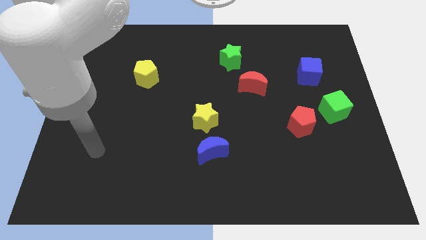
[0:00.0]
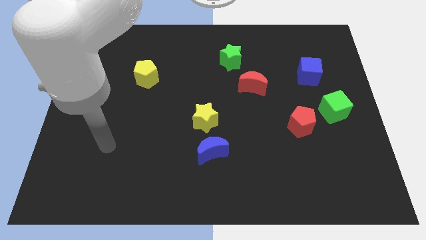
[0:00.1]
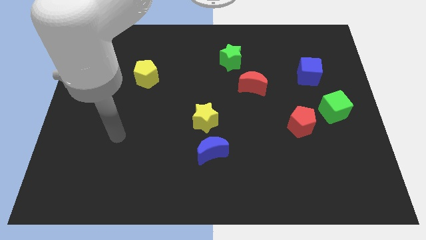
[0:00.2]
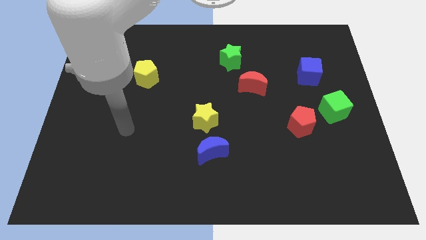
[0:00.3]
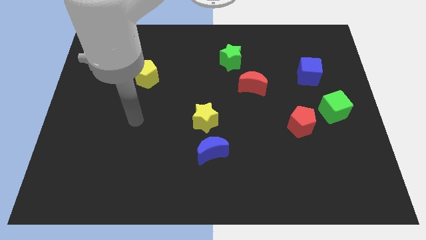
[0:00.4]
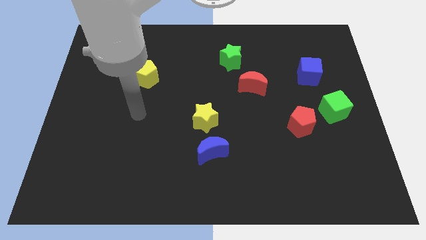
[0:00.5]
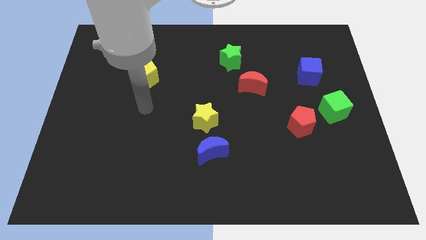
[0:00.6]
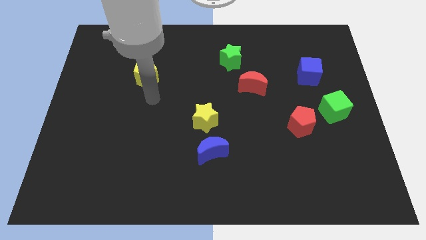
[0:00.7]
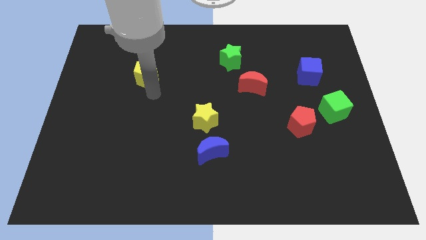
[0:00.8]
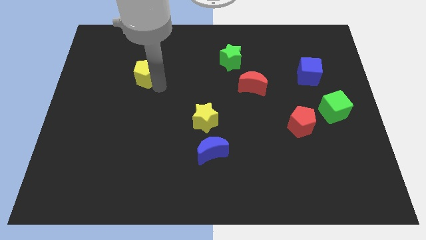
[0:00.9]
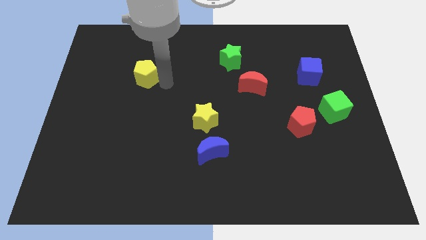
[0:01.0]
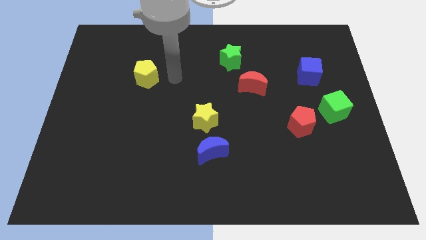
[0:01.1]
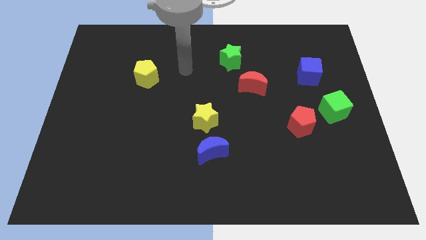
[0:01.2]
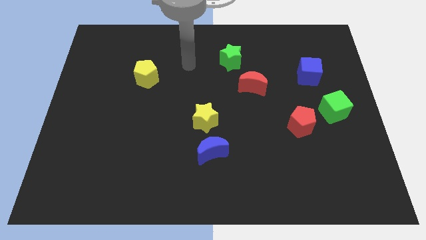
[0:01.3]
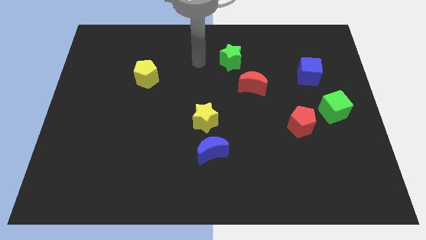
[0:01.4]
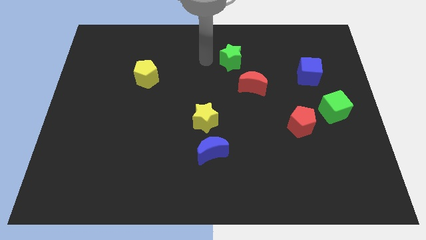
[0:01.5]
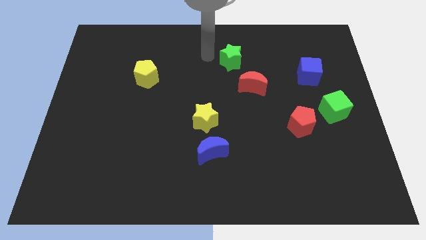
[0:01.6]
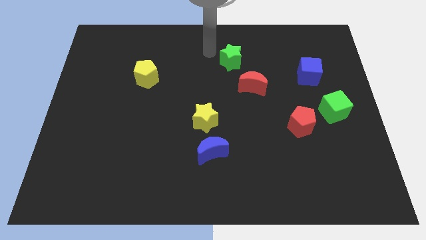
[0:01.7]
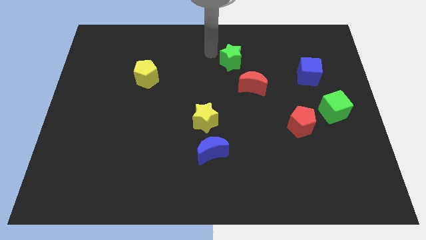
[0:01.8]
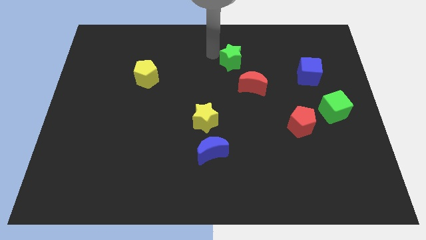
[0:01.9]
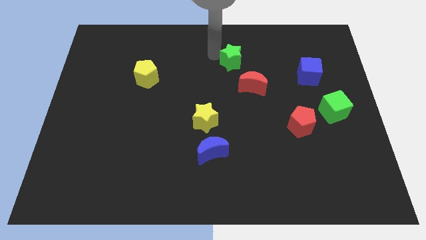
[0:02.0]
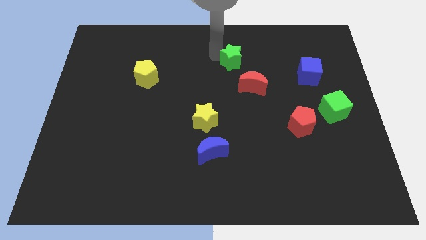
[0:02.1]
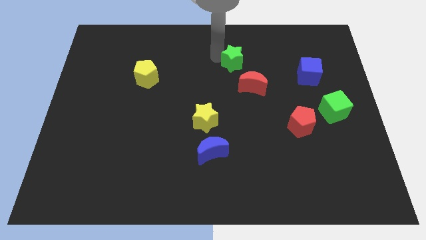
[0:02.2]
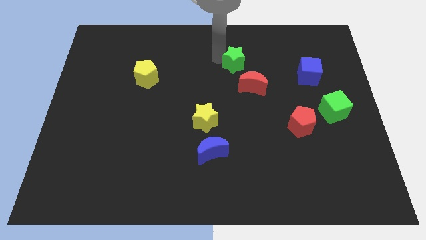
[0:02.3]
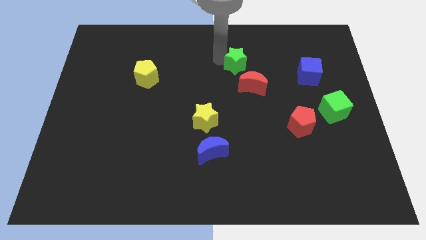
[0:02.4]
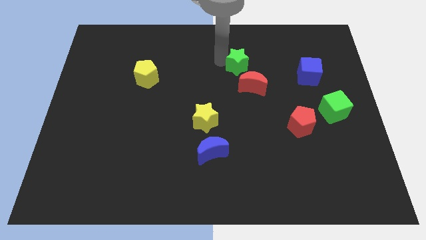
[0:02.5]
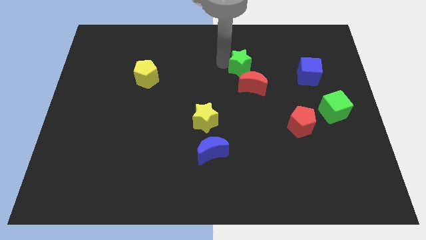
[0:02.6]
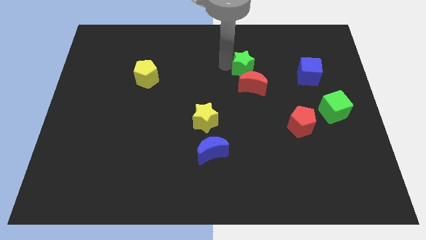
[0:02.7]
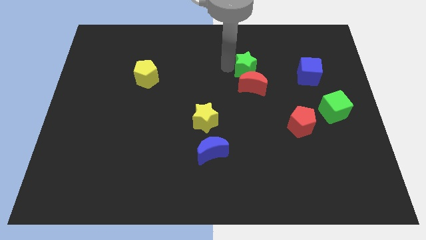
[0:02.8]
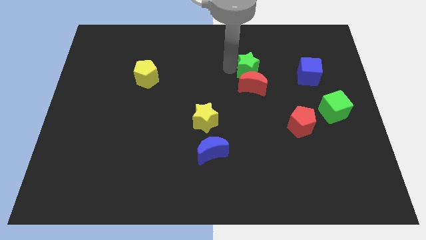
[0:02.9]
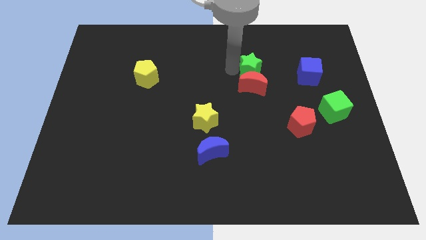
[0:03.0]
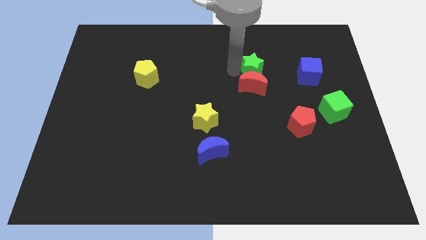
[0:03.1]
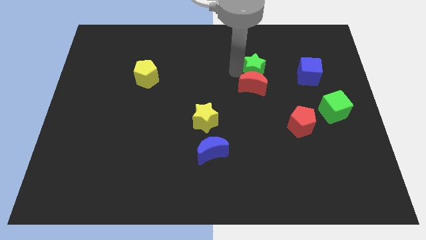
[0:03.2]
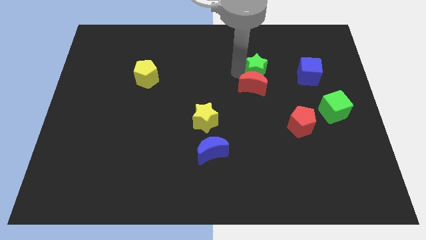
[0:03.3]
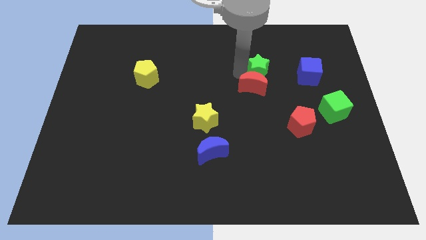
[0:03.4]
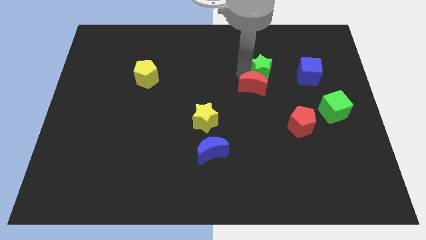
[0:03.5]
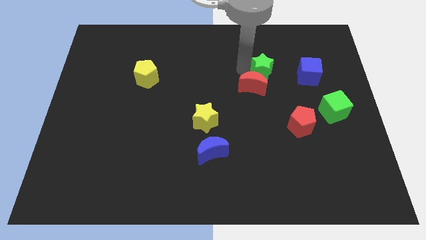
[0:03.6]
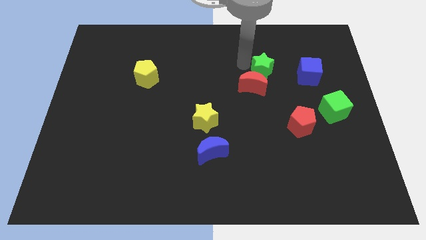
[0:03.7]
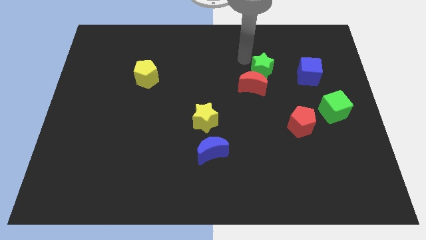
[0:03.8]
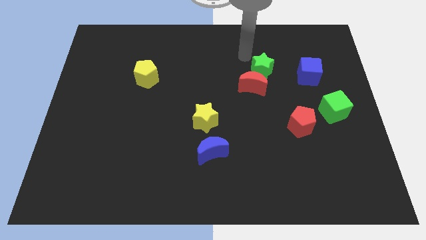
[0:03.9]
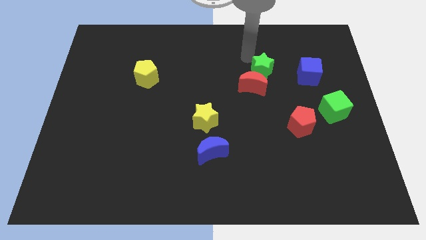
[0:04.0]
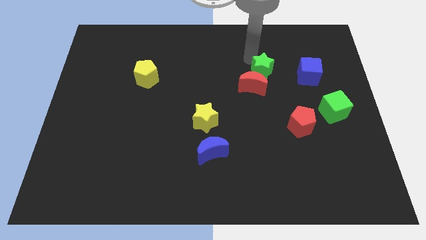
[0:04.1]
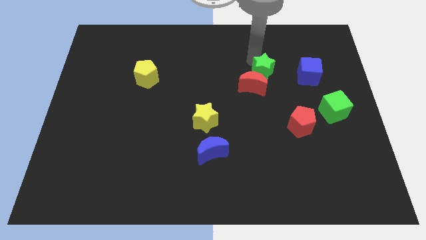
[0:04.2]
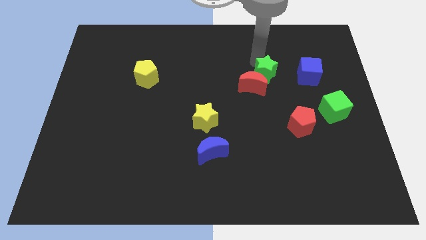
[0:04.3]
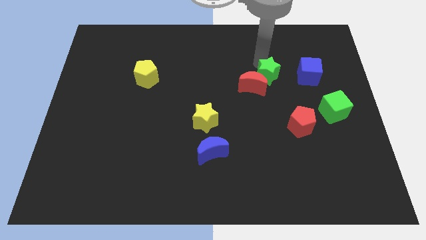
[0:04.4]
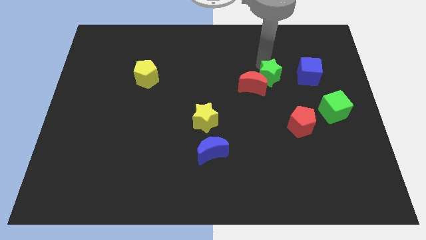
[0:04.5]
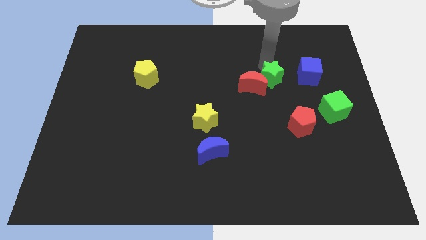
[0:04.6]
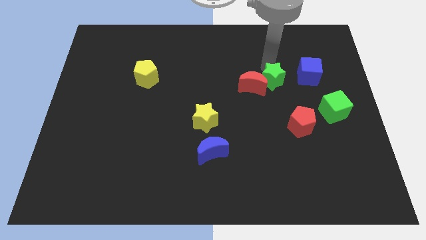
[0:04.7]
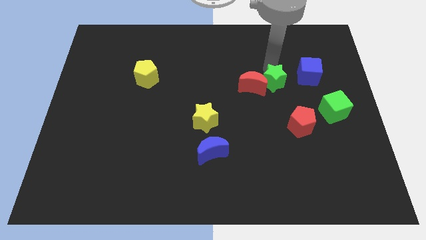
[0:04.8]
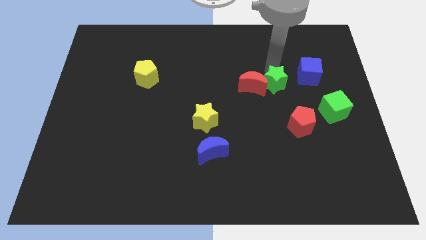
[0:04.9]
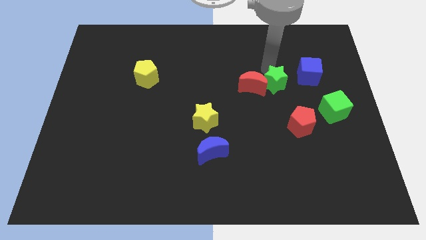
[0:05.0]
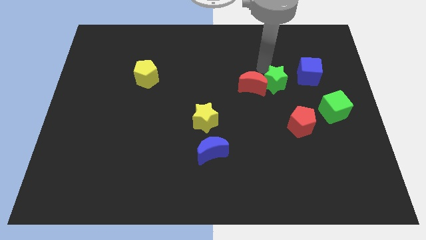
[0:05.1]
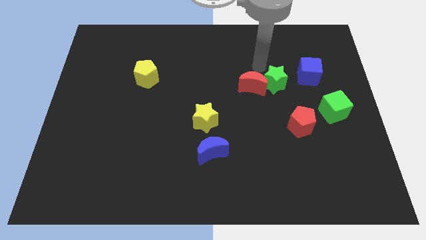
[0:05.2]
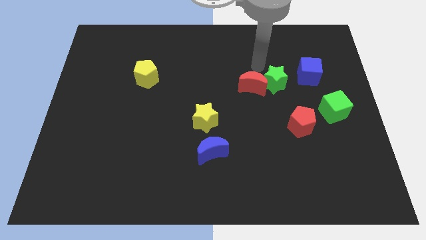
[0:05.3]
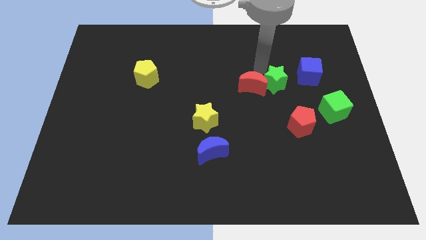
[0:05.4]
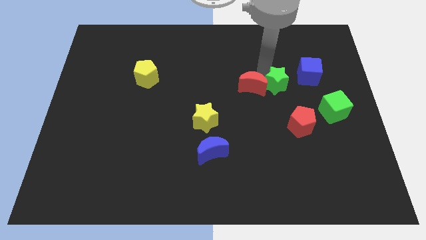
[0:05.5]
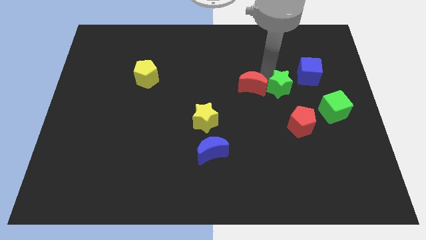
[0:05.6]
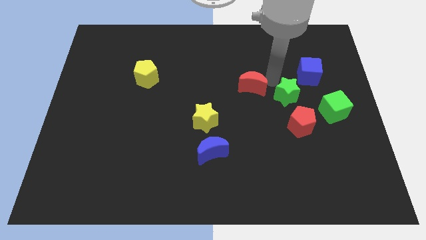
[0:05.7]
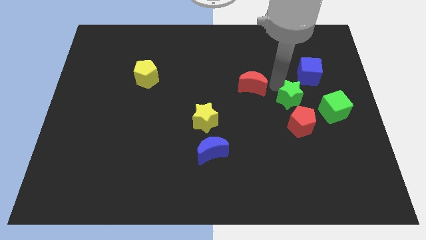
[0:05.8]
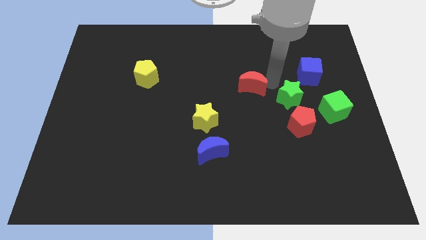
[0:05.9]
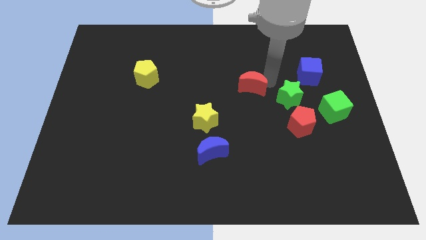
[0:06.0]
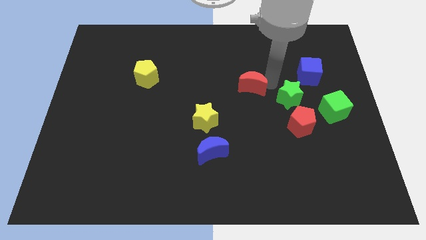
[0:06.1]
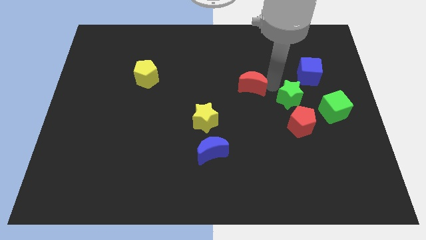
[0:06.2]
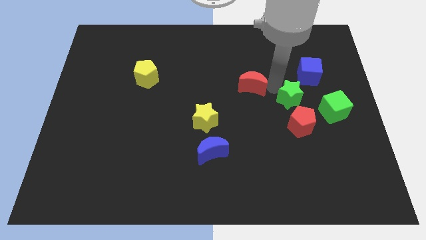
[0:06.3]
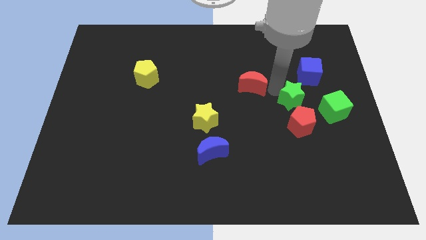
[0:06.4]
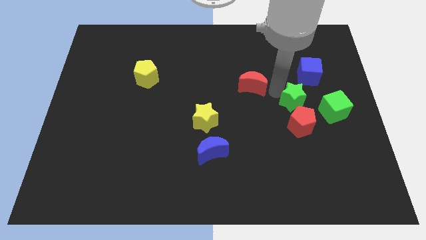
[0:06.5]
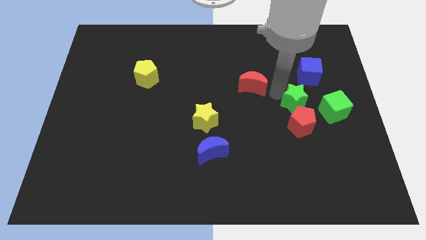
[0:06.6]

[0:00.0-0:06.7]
move the green star downwards and then to the right

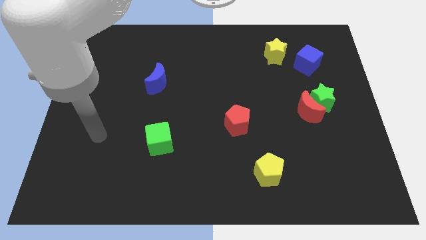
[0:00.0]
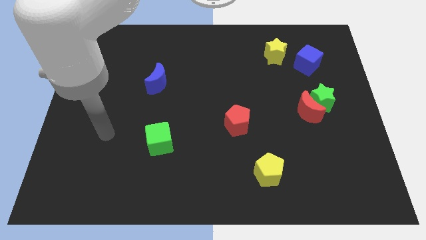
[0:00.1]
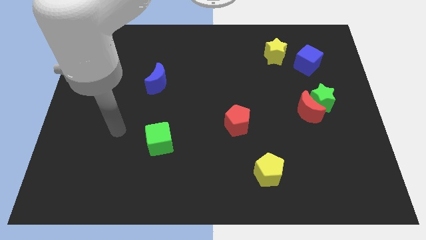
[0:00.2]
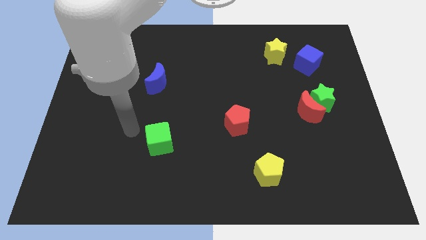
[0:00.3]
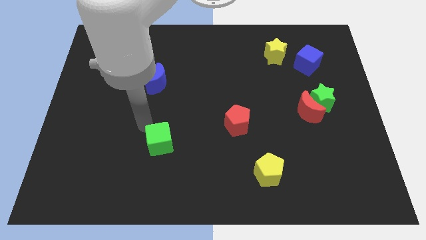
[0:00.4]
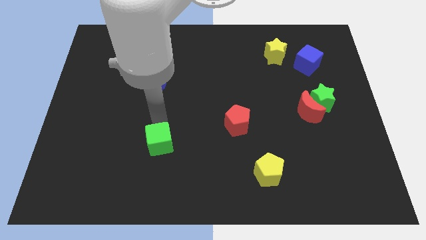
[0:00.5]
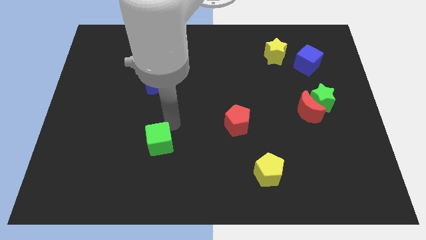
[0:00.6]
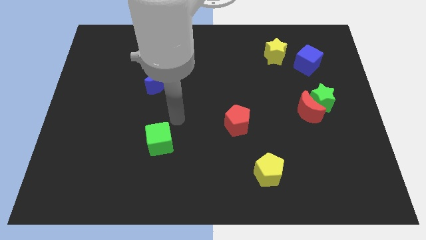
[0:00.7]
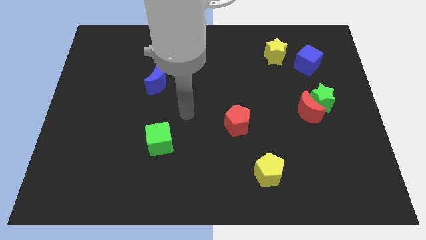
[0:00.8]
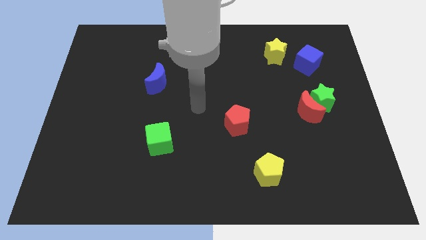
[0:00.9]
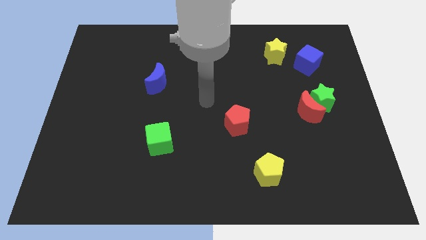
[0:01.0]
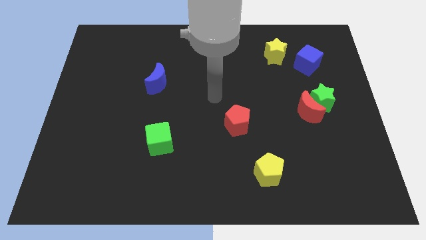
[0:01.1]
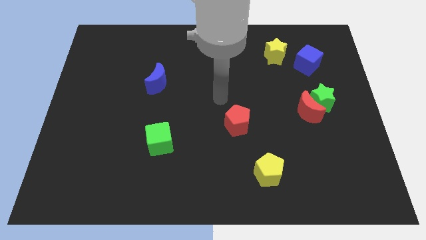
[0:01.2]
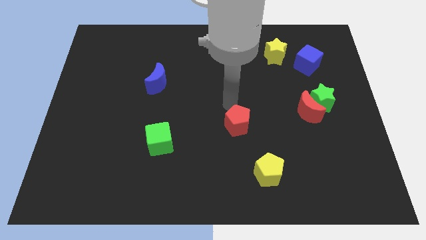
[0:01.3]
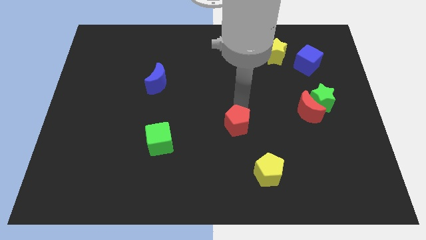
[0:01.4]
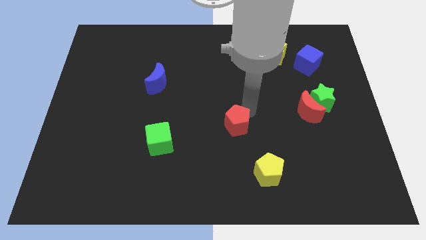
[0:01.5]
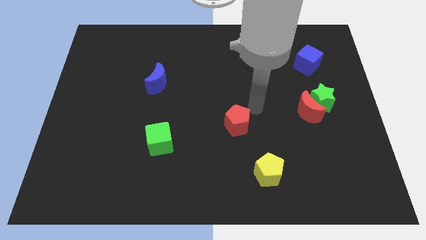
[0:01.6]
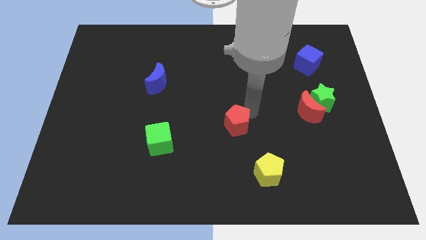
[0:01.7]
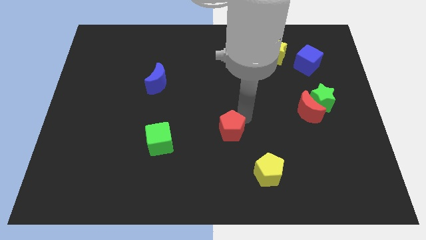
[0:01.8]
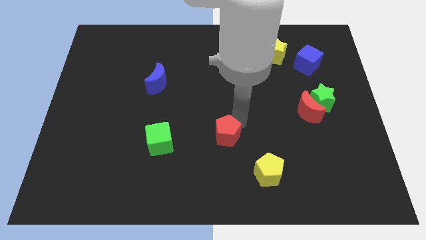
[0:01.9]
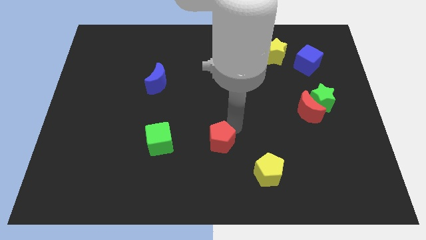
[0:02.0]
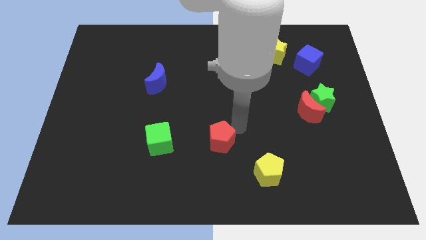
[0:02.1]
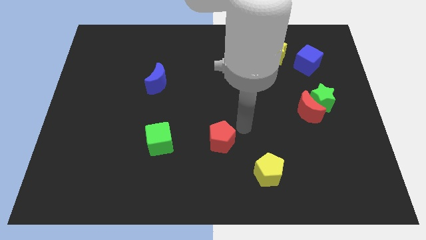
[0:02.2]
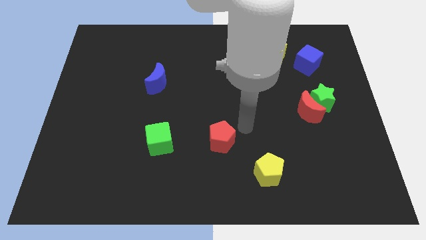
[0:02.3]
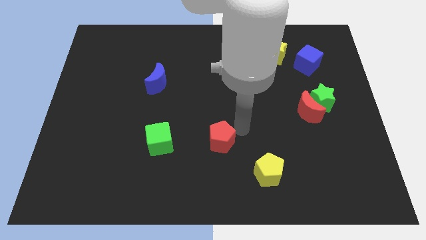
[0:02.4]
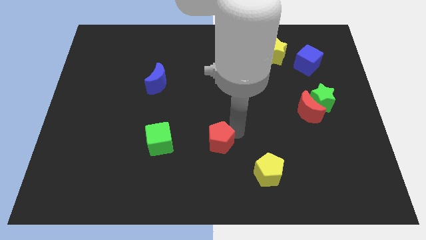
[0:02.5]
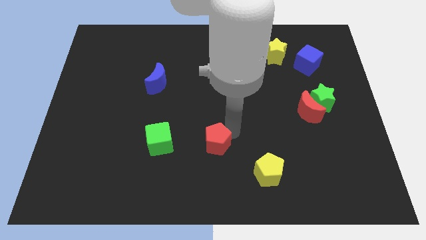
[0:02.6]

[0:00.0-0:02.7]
slightly slide the red pentagon downwards and then left
